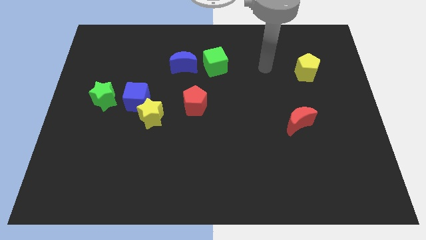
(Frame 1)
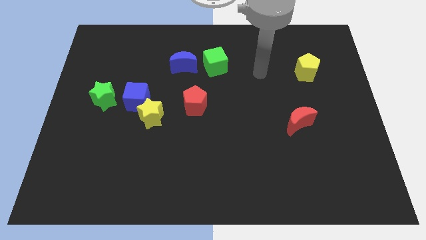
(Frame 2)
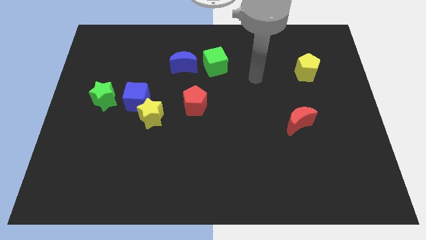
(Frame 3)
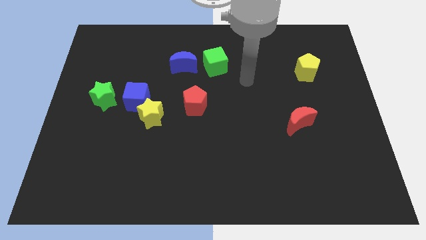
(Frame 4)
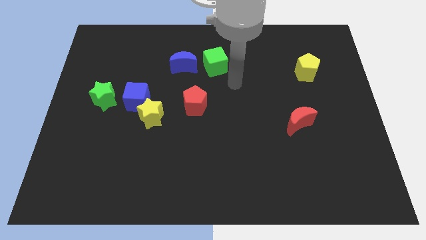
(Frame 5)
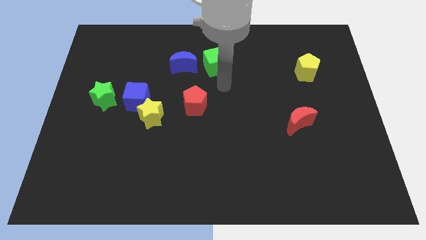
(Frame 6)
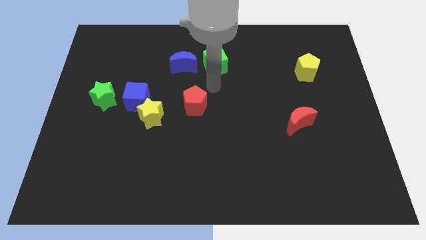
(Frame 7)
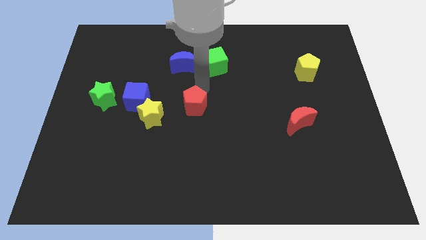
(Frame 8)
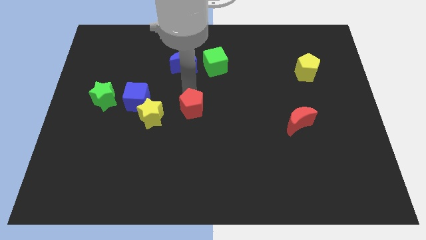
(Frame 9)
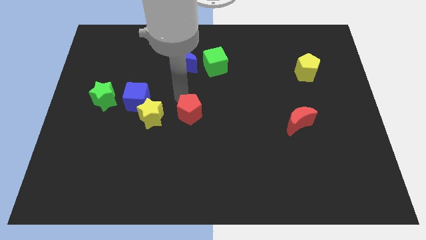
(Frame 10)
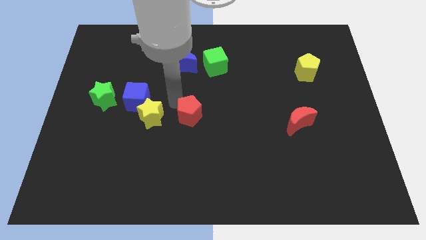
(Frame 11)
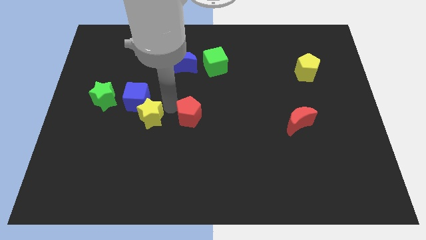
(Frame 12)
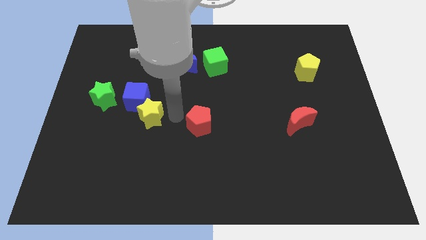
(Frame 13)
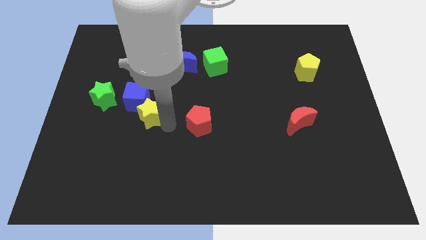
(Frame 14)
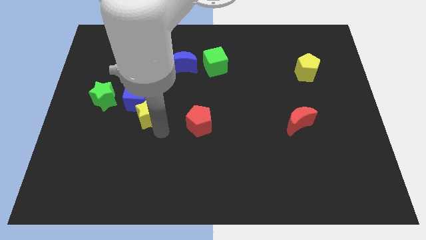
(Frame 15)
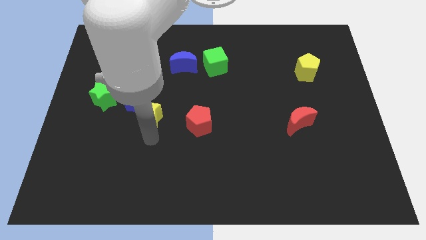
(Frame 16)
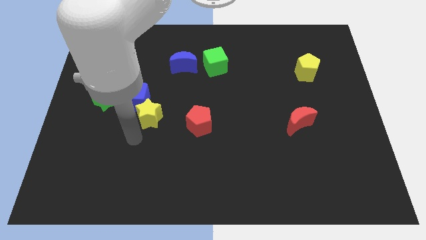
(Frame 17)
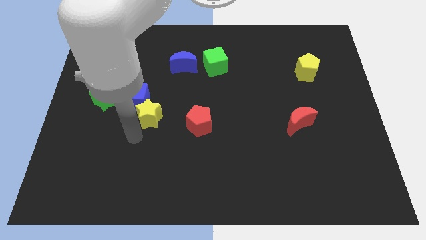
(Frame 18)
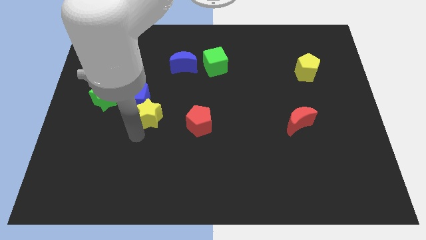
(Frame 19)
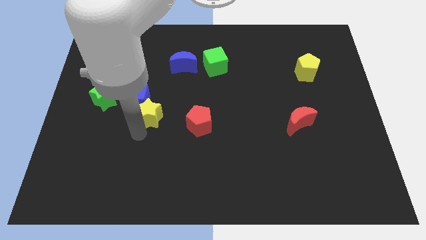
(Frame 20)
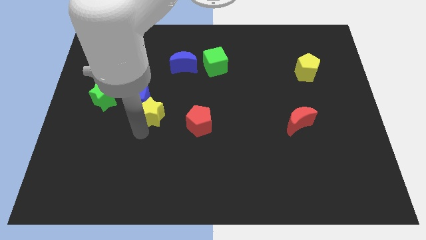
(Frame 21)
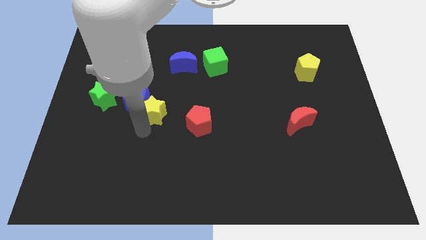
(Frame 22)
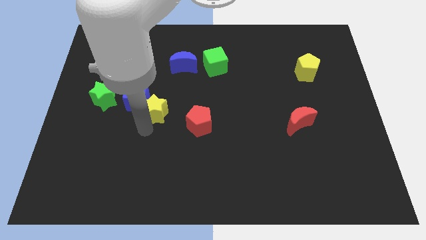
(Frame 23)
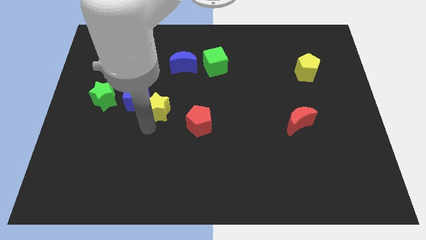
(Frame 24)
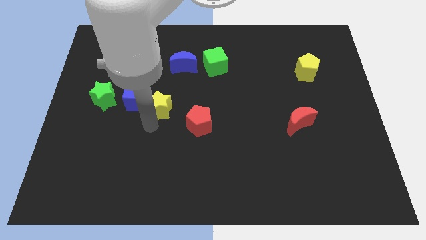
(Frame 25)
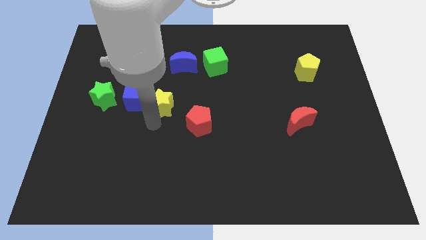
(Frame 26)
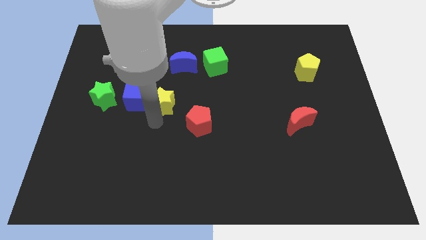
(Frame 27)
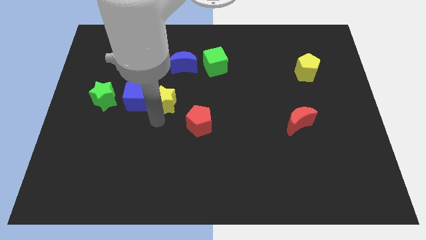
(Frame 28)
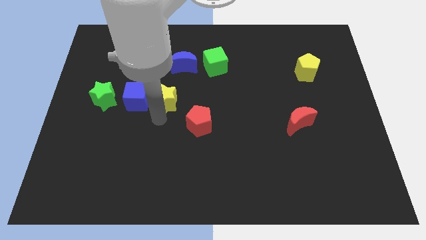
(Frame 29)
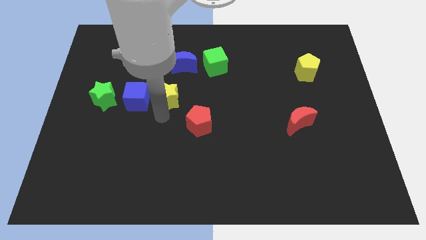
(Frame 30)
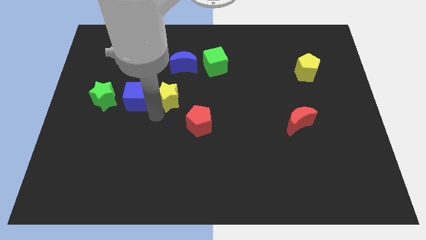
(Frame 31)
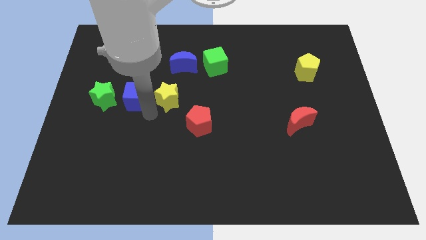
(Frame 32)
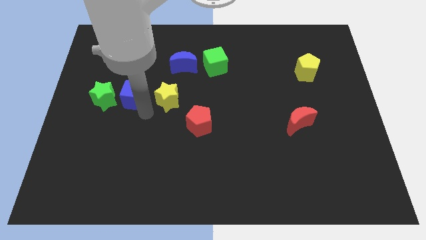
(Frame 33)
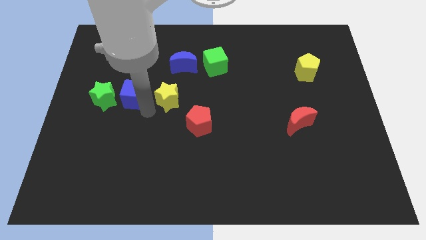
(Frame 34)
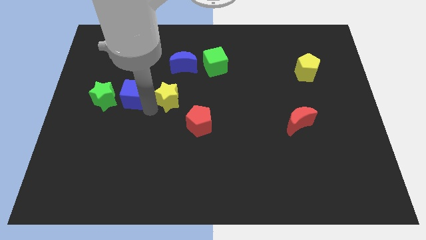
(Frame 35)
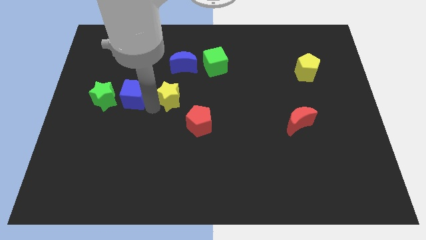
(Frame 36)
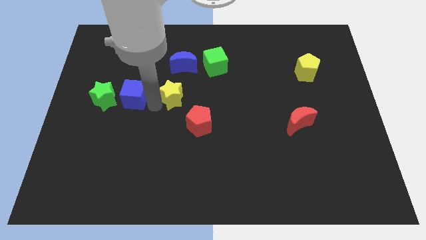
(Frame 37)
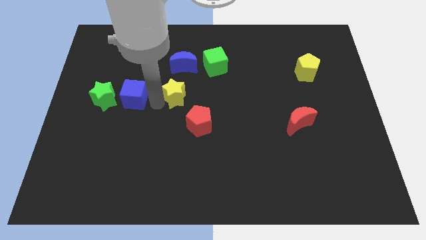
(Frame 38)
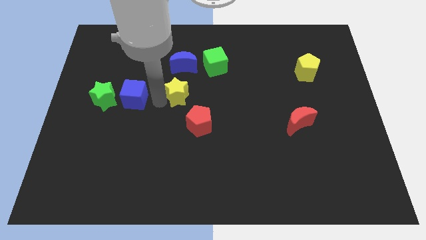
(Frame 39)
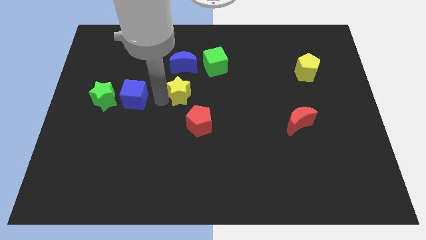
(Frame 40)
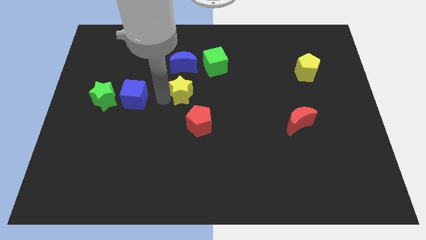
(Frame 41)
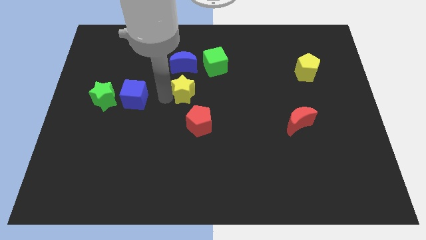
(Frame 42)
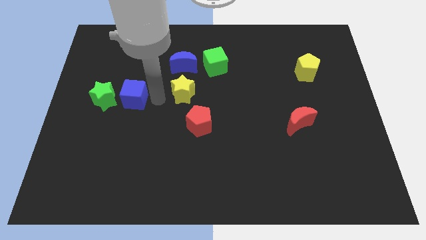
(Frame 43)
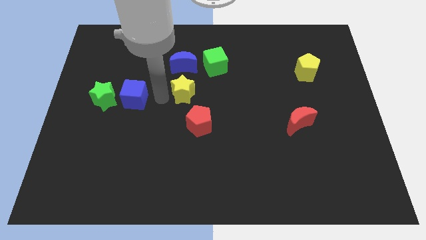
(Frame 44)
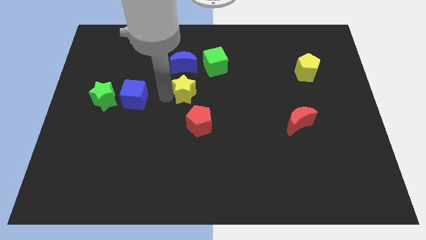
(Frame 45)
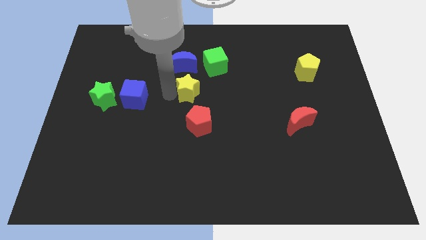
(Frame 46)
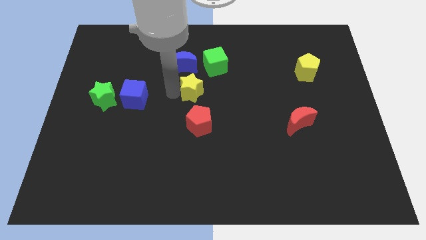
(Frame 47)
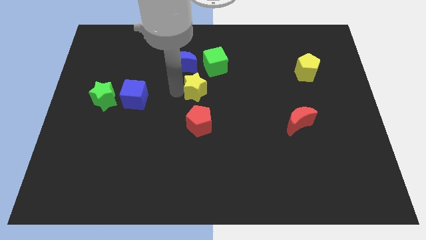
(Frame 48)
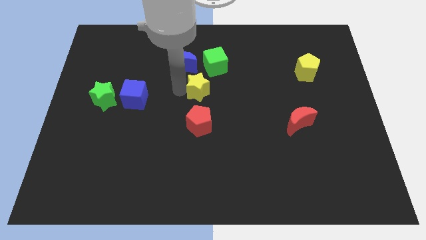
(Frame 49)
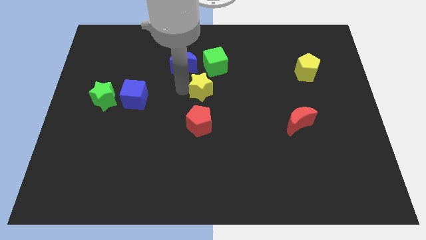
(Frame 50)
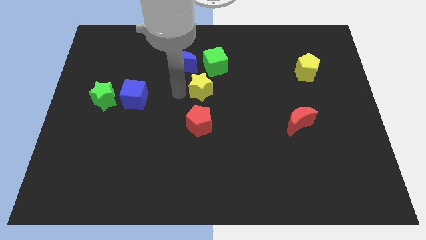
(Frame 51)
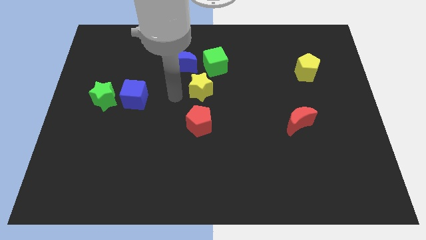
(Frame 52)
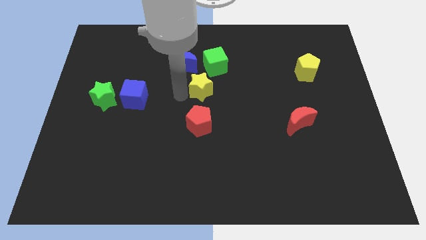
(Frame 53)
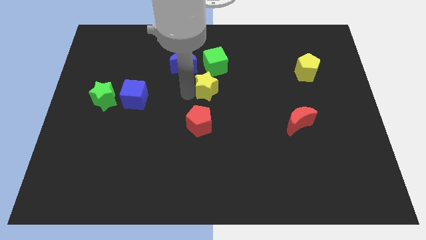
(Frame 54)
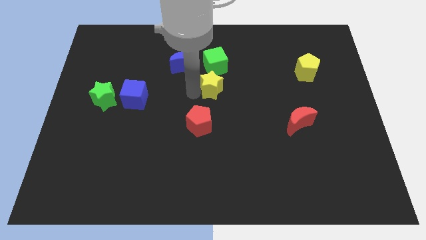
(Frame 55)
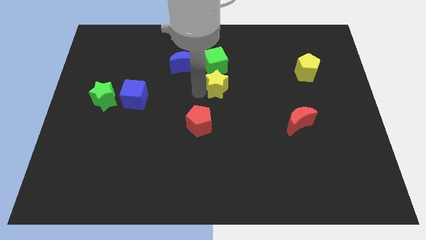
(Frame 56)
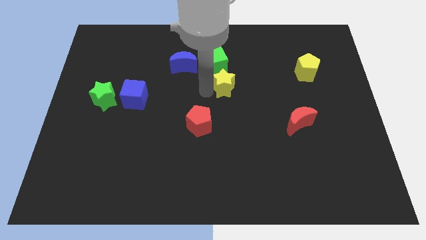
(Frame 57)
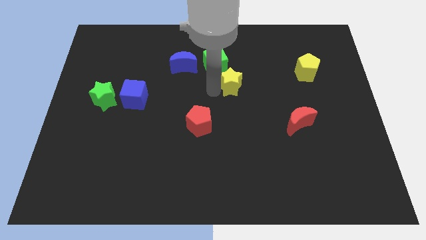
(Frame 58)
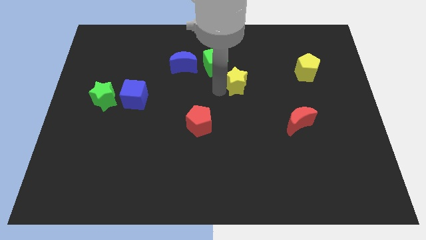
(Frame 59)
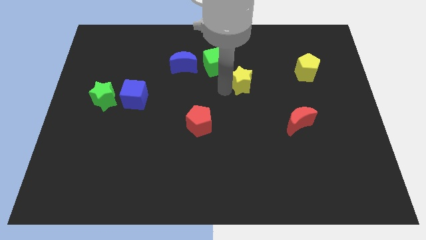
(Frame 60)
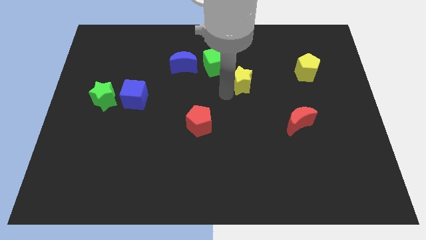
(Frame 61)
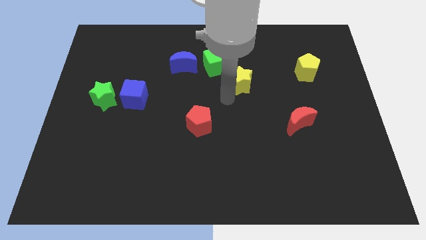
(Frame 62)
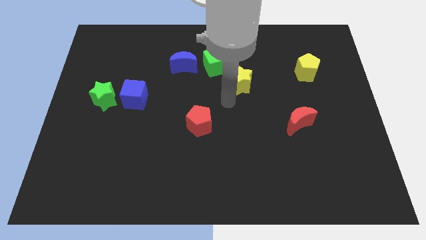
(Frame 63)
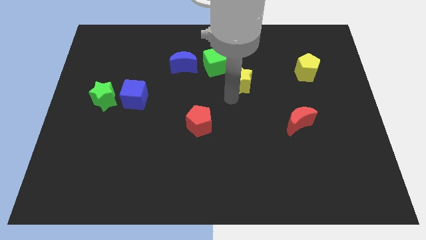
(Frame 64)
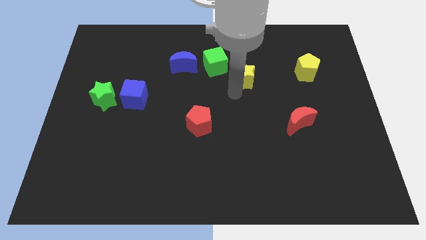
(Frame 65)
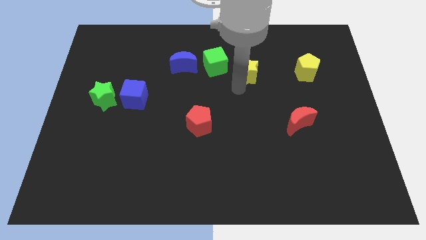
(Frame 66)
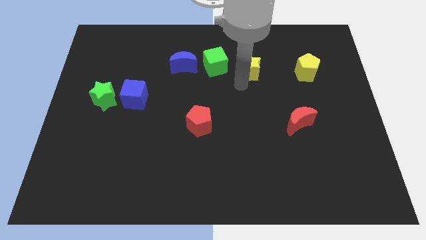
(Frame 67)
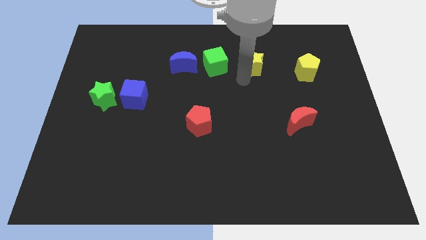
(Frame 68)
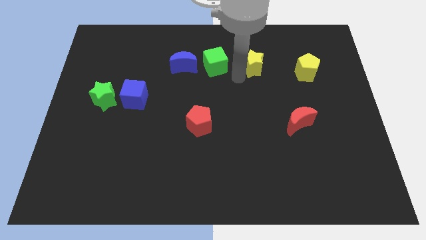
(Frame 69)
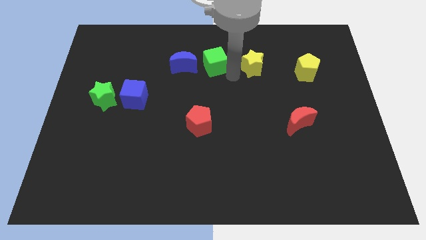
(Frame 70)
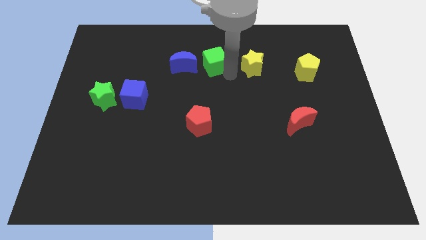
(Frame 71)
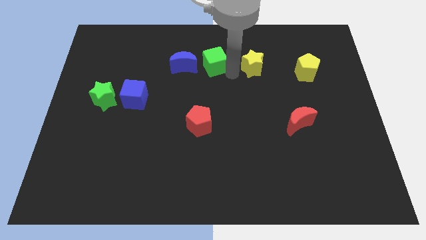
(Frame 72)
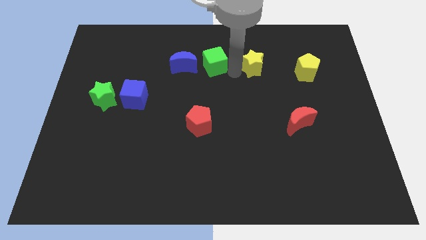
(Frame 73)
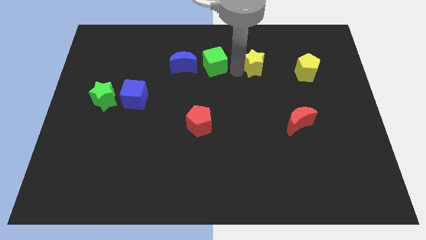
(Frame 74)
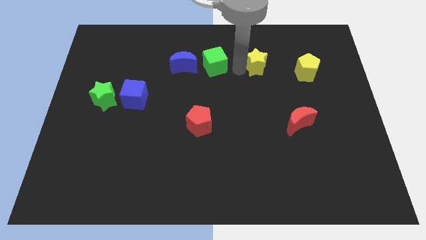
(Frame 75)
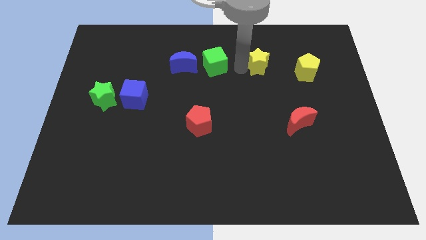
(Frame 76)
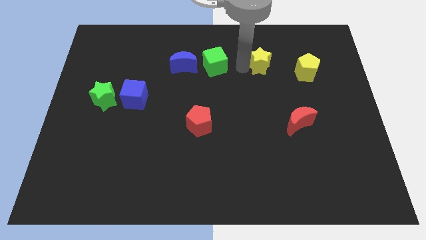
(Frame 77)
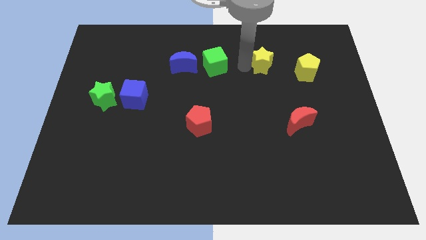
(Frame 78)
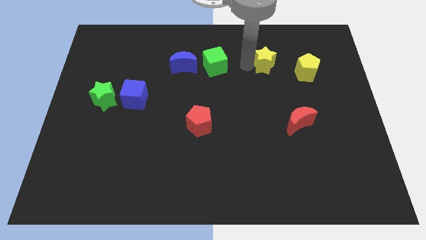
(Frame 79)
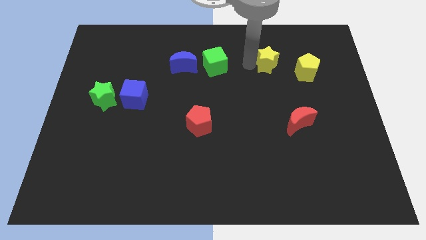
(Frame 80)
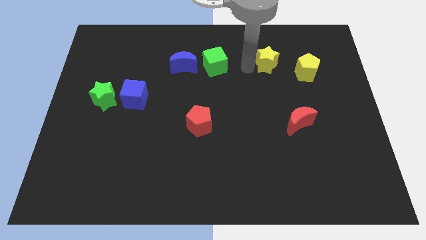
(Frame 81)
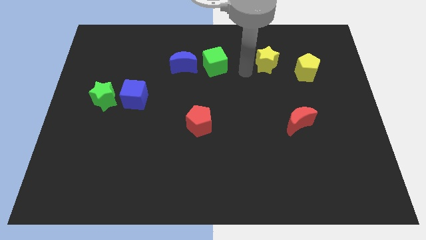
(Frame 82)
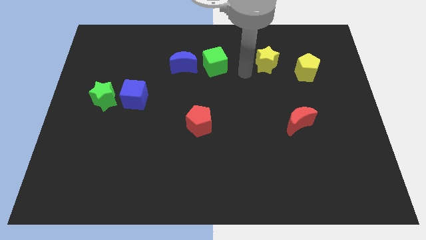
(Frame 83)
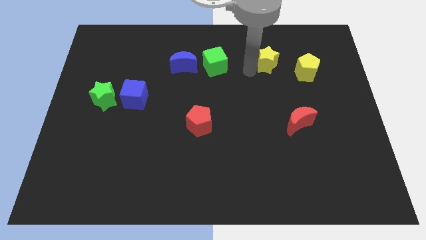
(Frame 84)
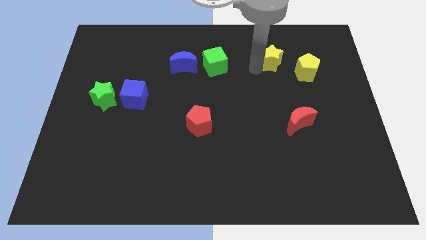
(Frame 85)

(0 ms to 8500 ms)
slide the yellow star to the top left side of the yellow pentagon
